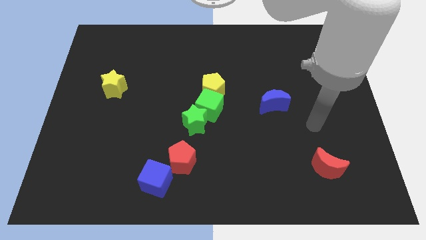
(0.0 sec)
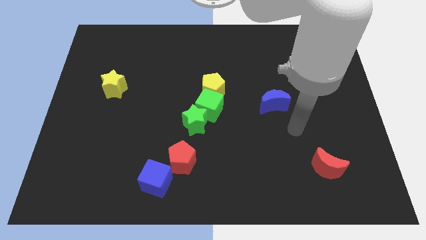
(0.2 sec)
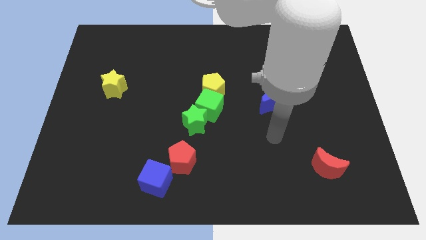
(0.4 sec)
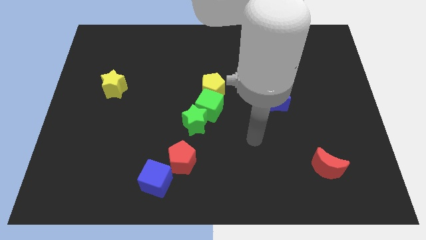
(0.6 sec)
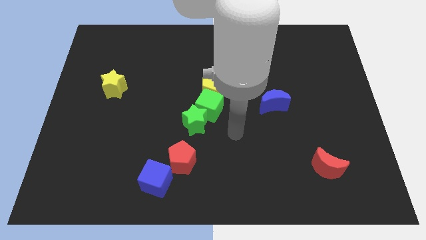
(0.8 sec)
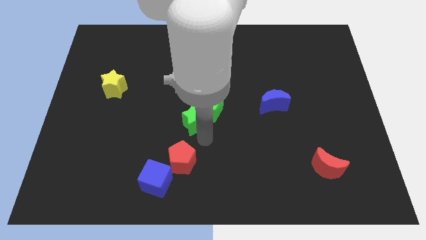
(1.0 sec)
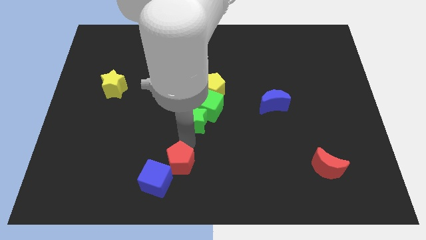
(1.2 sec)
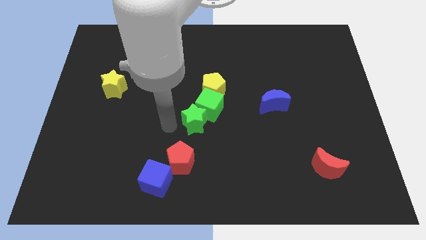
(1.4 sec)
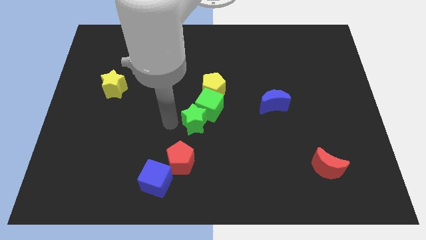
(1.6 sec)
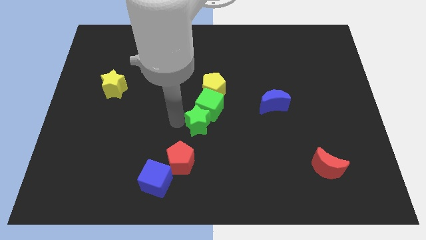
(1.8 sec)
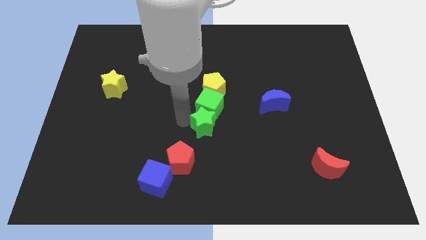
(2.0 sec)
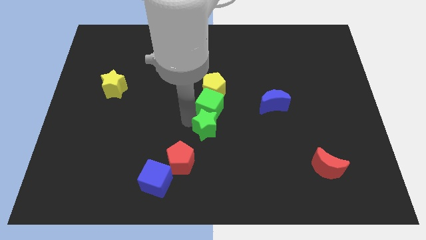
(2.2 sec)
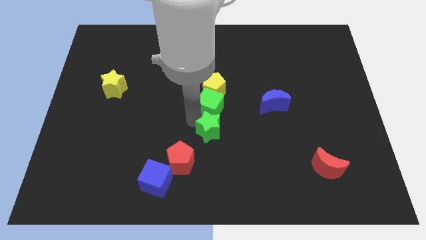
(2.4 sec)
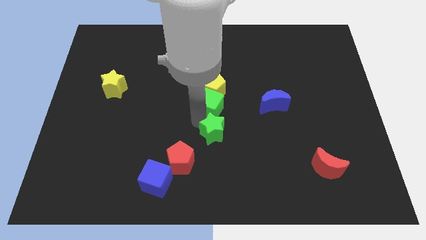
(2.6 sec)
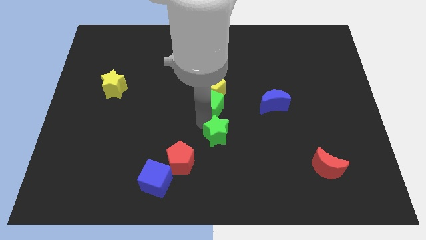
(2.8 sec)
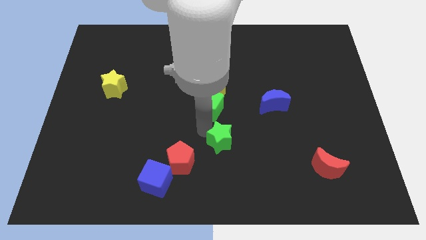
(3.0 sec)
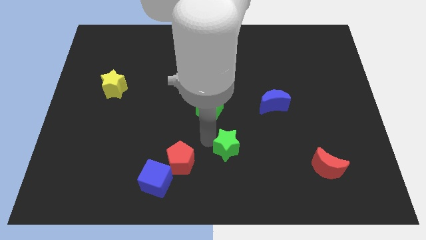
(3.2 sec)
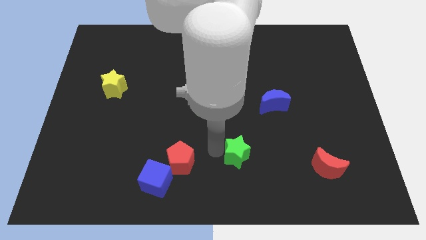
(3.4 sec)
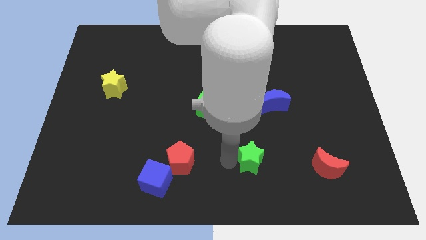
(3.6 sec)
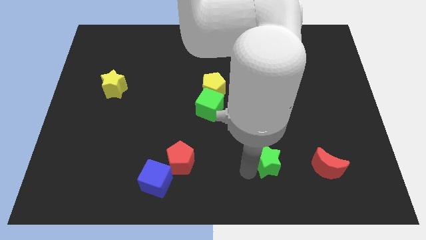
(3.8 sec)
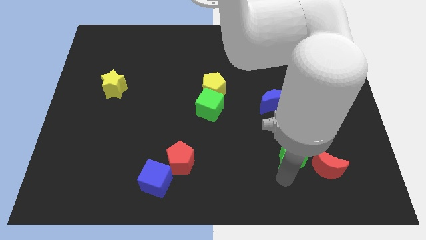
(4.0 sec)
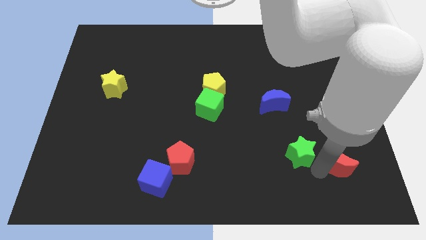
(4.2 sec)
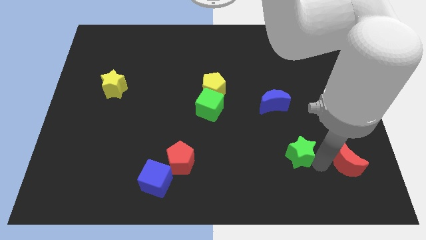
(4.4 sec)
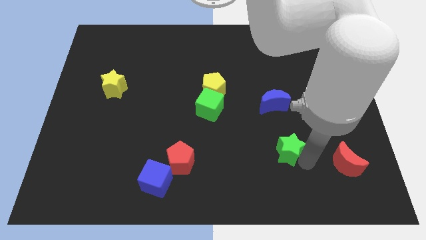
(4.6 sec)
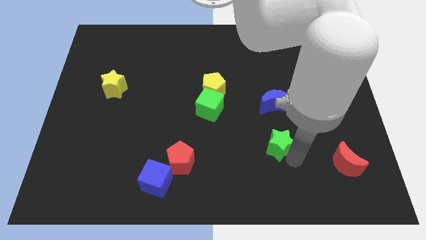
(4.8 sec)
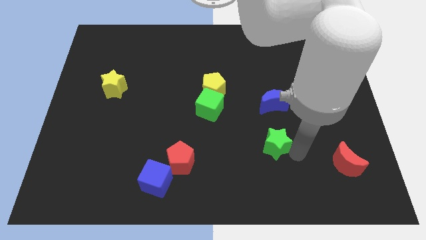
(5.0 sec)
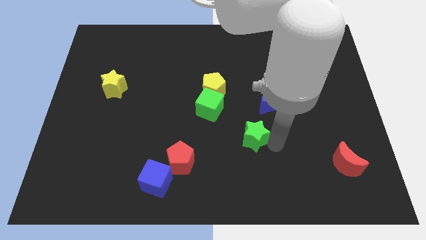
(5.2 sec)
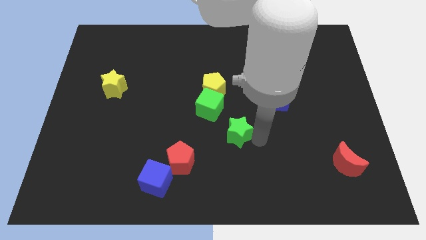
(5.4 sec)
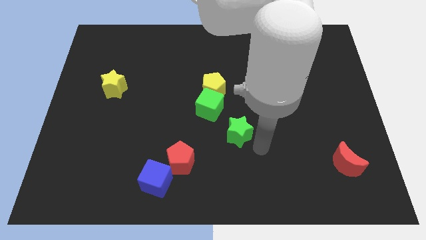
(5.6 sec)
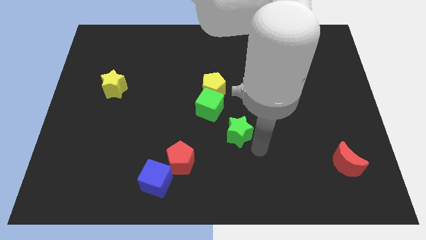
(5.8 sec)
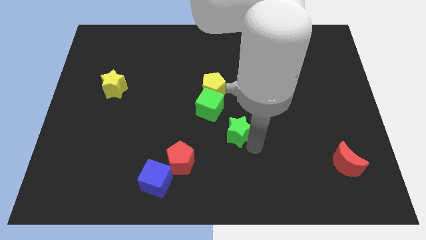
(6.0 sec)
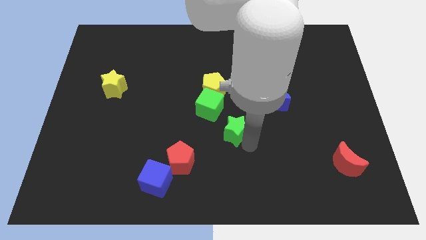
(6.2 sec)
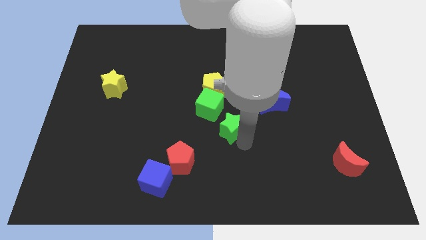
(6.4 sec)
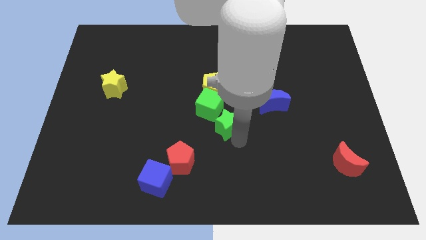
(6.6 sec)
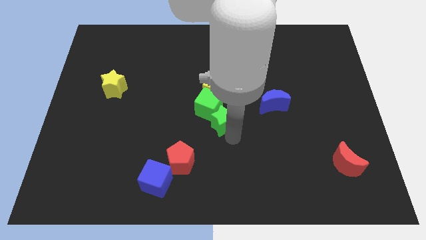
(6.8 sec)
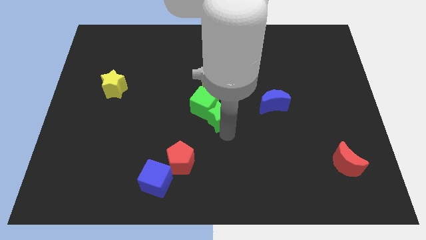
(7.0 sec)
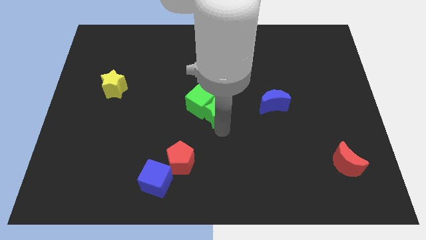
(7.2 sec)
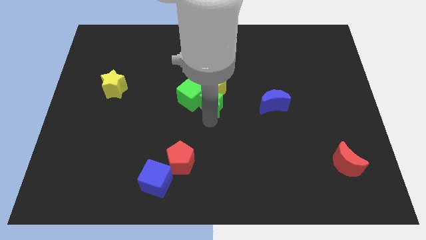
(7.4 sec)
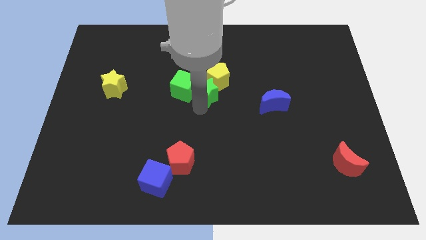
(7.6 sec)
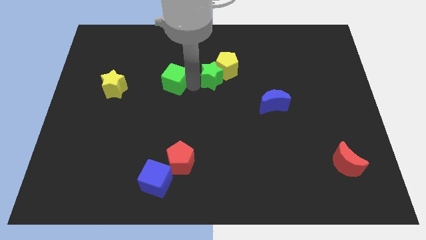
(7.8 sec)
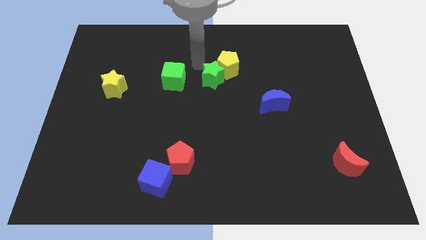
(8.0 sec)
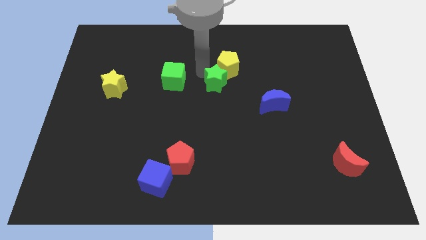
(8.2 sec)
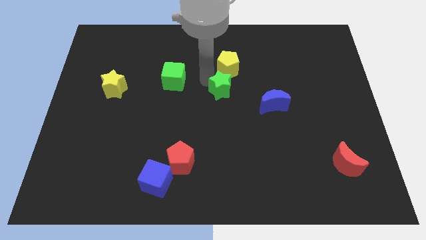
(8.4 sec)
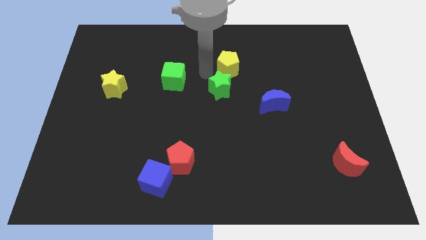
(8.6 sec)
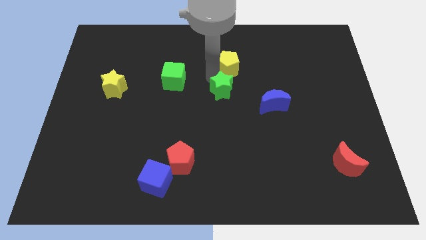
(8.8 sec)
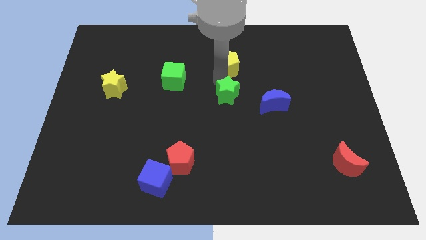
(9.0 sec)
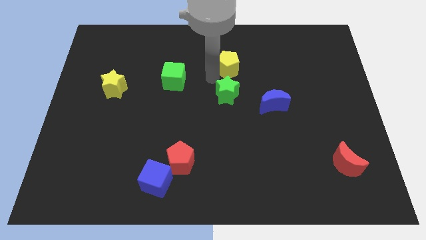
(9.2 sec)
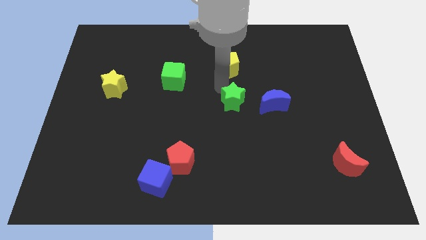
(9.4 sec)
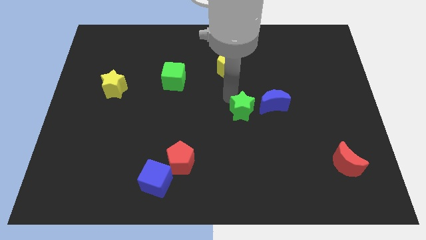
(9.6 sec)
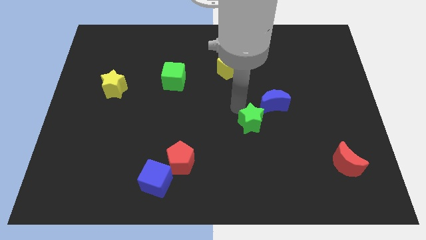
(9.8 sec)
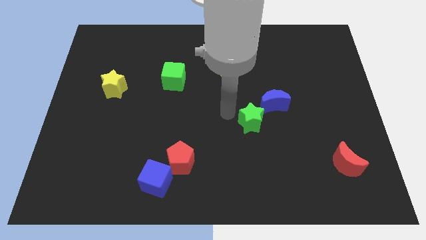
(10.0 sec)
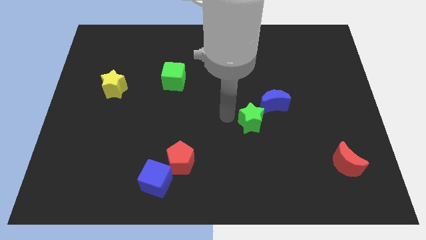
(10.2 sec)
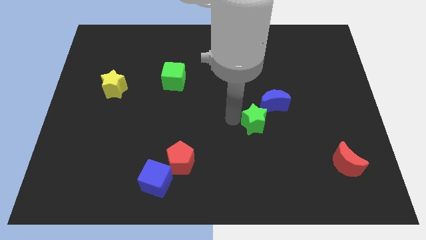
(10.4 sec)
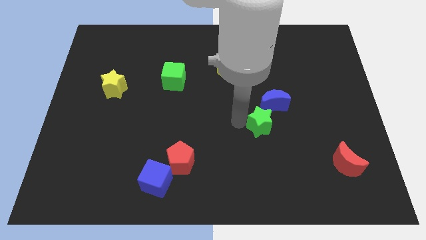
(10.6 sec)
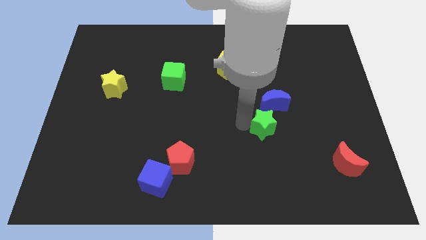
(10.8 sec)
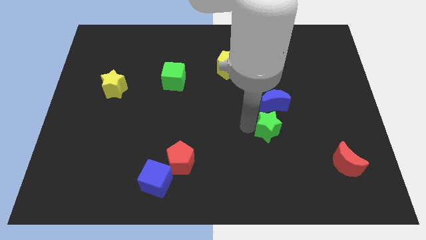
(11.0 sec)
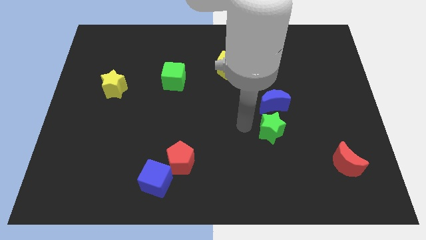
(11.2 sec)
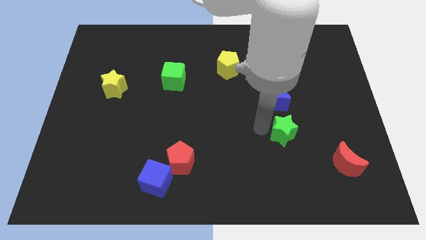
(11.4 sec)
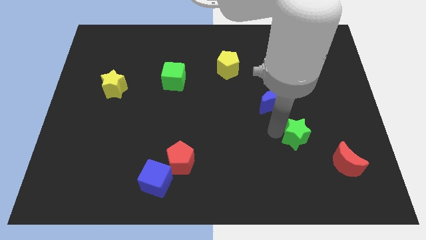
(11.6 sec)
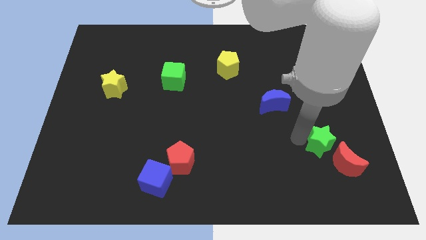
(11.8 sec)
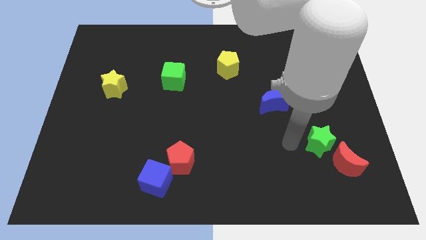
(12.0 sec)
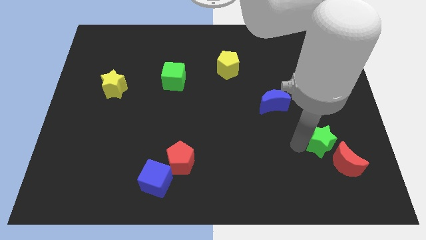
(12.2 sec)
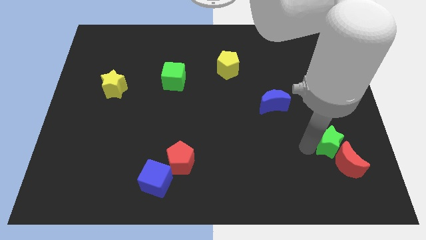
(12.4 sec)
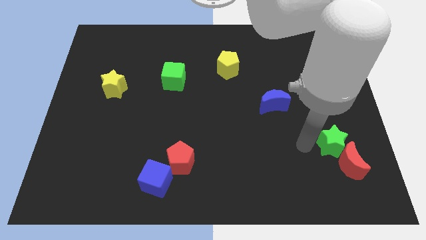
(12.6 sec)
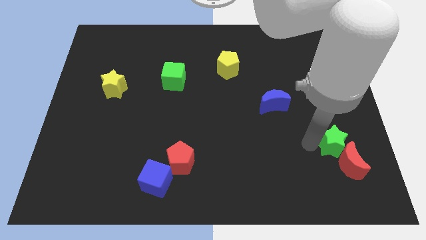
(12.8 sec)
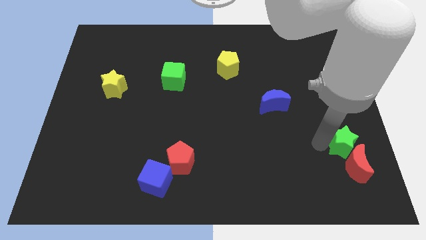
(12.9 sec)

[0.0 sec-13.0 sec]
move the green star diagonally up and to the right of the red moon

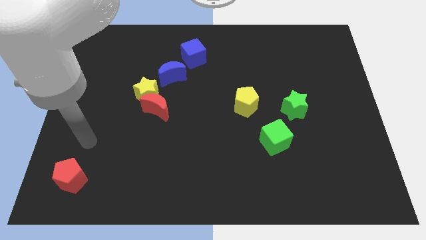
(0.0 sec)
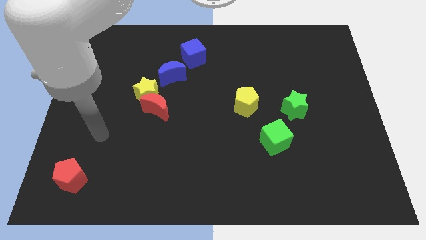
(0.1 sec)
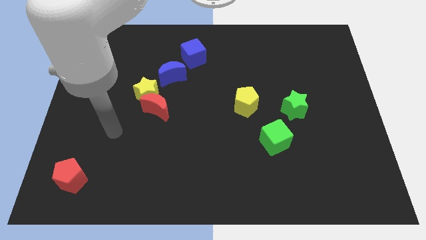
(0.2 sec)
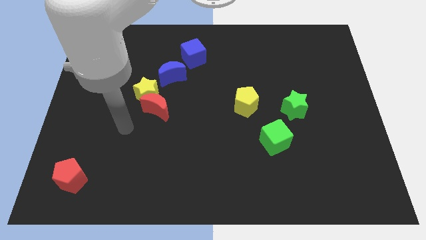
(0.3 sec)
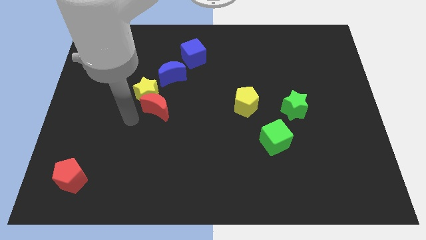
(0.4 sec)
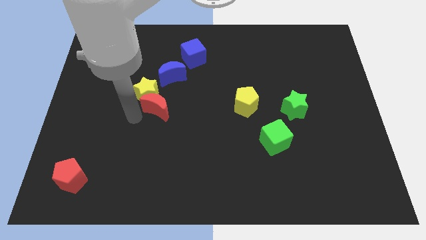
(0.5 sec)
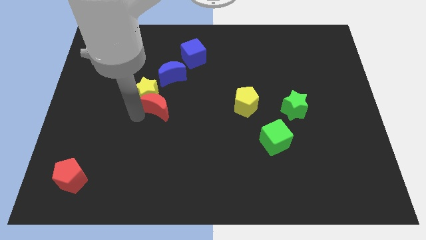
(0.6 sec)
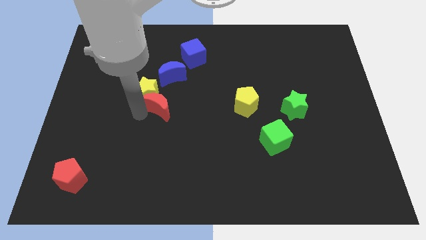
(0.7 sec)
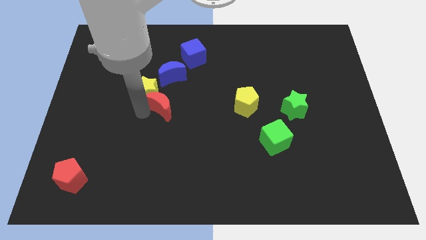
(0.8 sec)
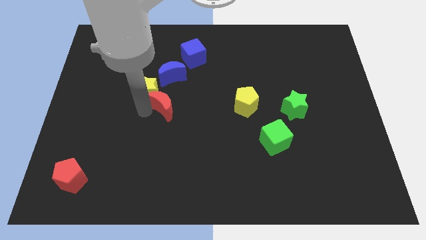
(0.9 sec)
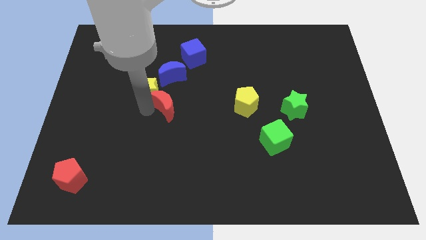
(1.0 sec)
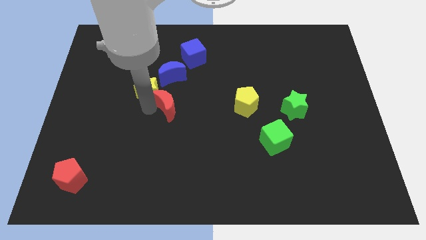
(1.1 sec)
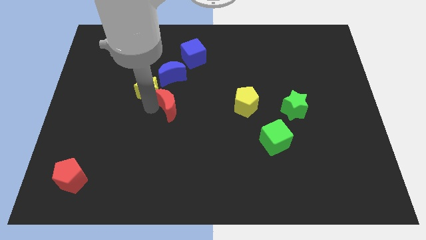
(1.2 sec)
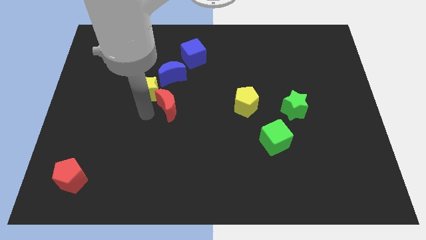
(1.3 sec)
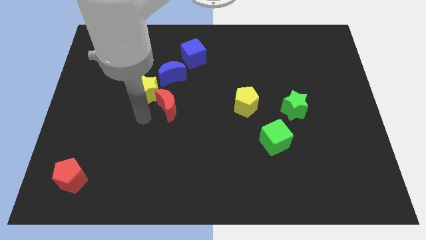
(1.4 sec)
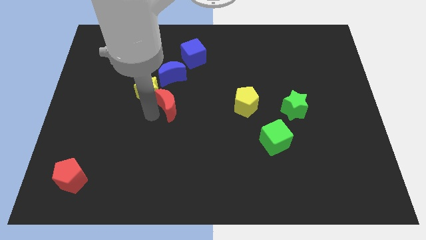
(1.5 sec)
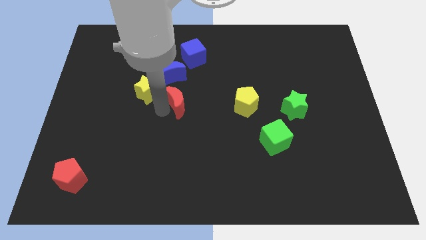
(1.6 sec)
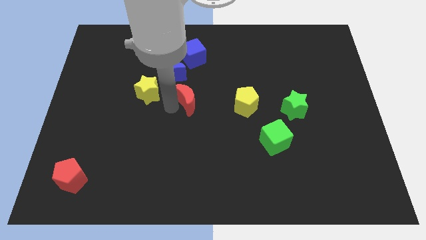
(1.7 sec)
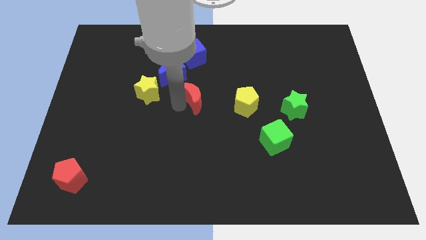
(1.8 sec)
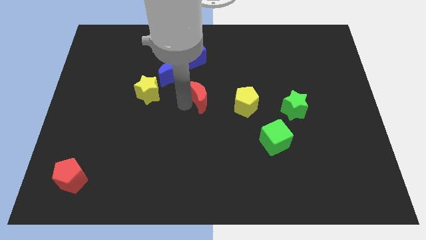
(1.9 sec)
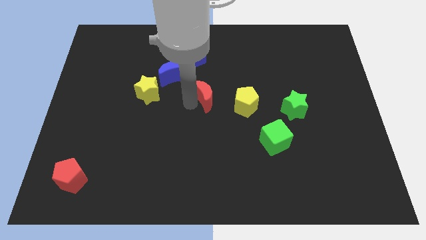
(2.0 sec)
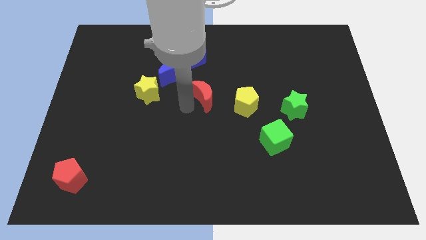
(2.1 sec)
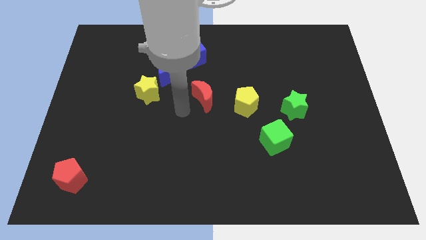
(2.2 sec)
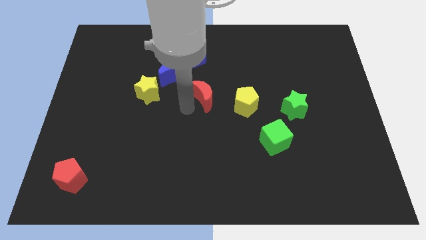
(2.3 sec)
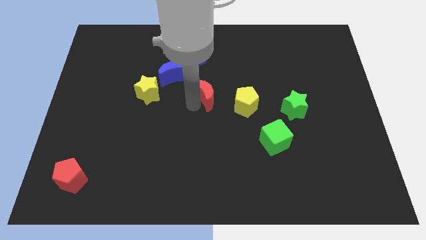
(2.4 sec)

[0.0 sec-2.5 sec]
slide the red moon diagonally up and to the left of the yellow pentagon
